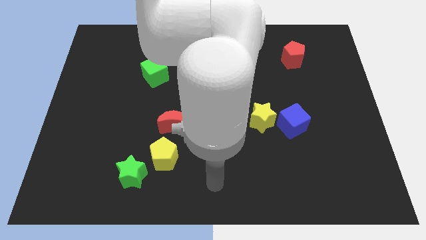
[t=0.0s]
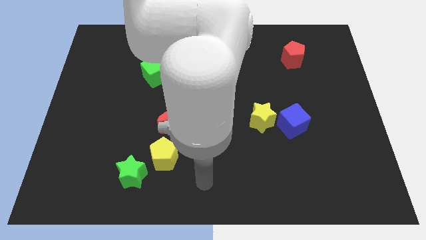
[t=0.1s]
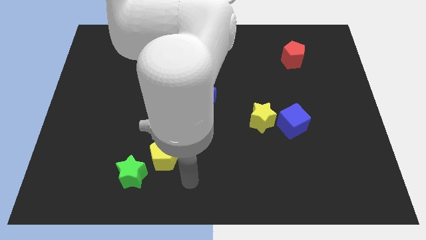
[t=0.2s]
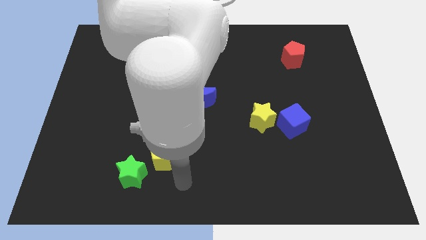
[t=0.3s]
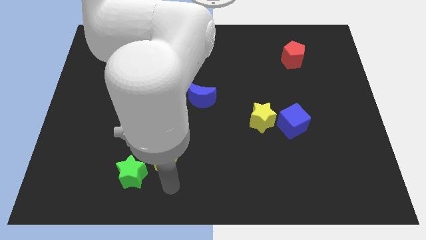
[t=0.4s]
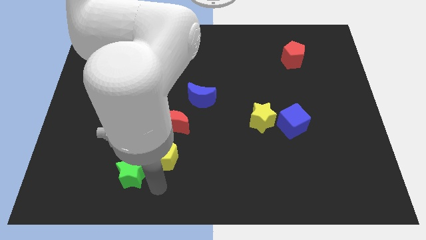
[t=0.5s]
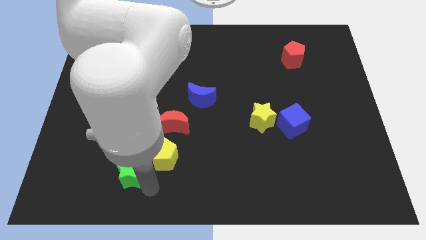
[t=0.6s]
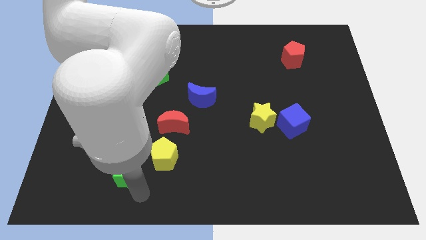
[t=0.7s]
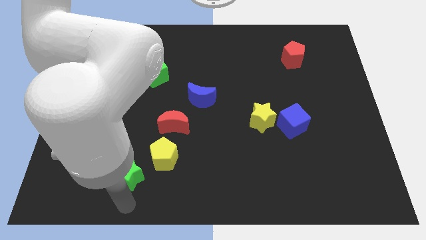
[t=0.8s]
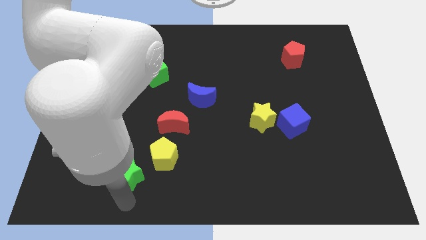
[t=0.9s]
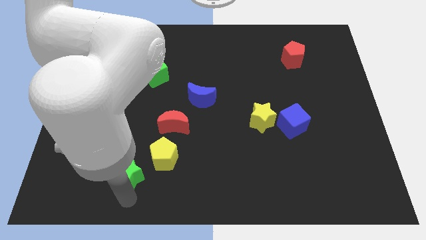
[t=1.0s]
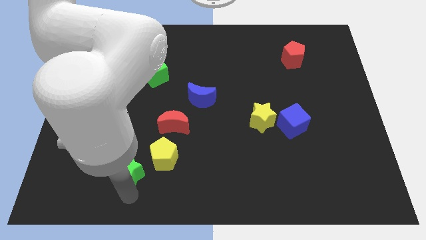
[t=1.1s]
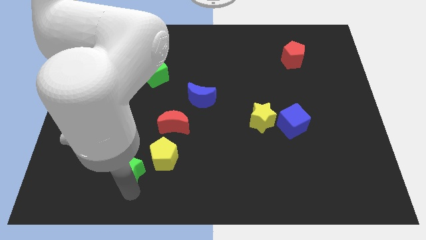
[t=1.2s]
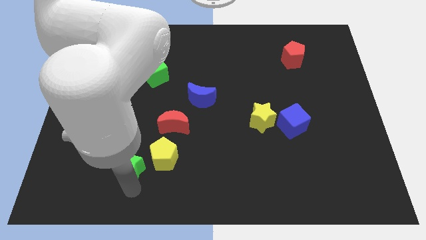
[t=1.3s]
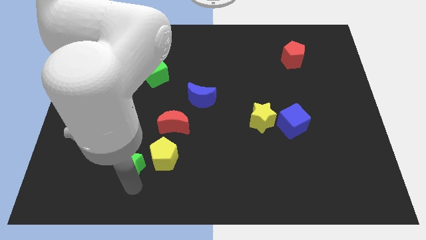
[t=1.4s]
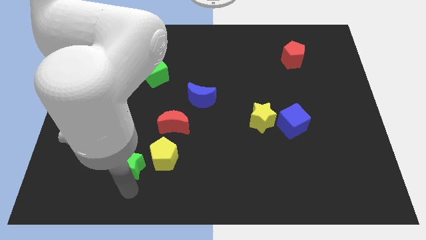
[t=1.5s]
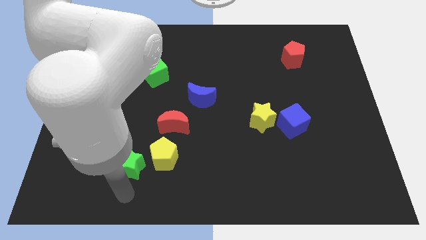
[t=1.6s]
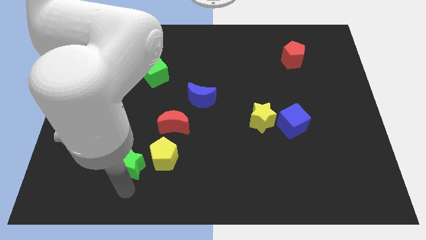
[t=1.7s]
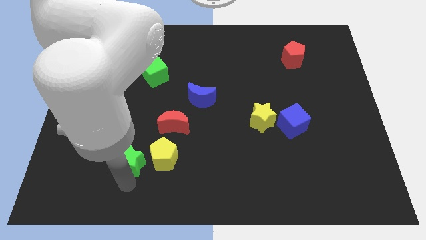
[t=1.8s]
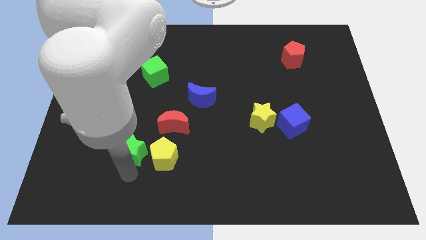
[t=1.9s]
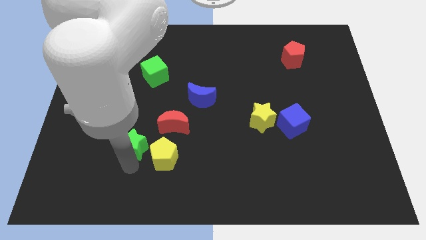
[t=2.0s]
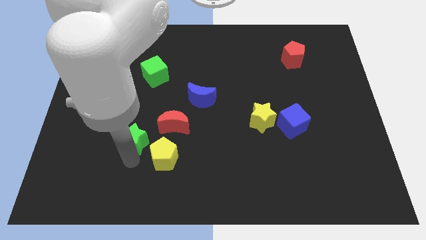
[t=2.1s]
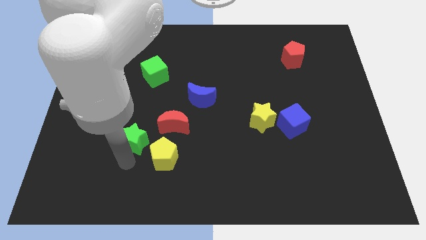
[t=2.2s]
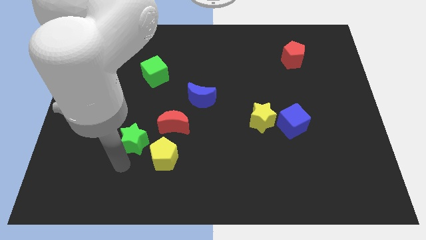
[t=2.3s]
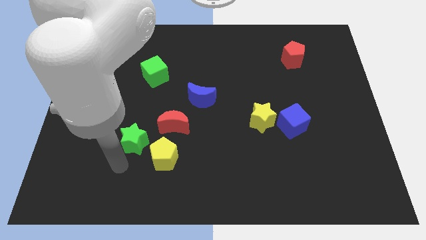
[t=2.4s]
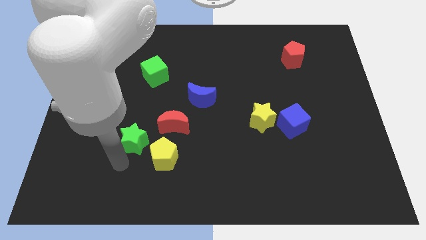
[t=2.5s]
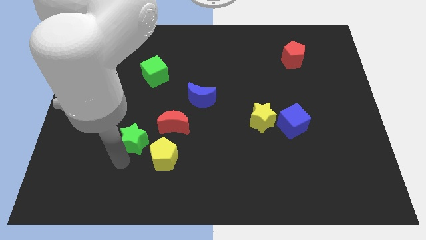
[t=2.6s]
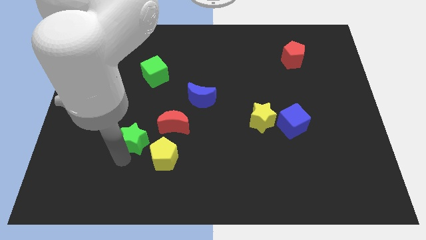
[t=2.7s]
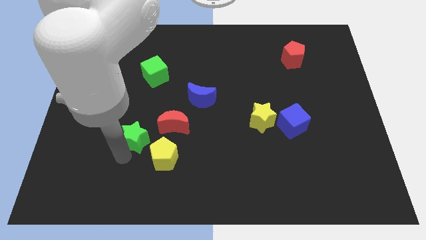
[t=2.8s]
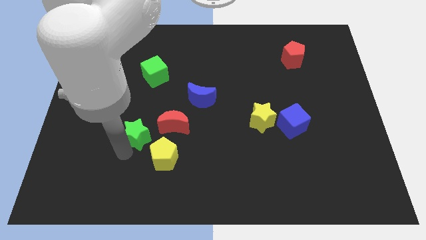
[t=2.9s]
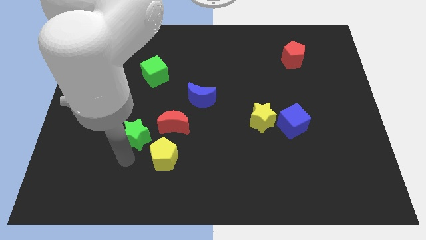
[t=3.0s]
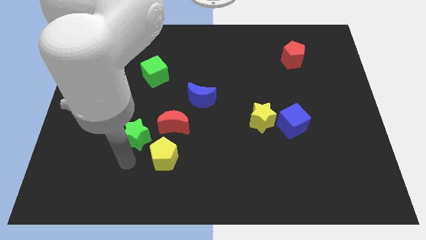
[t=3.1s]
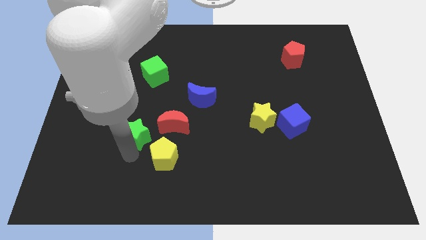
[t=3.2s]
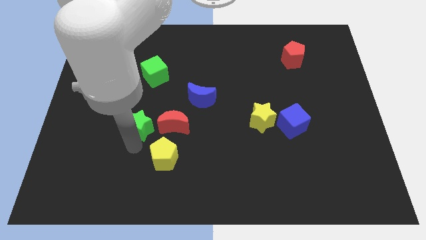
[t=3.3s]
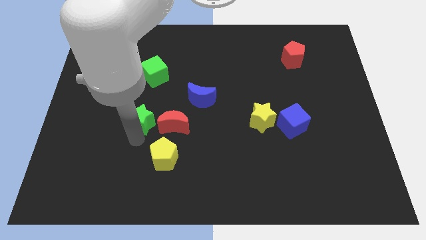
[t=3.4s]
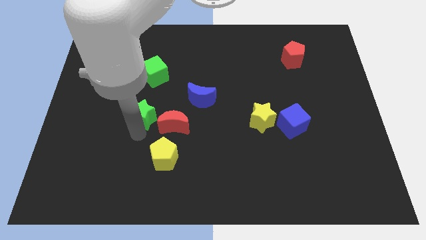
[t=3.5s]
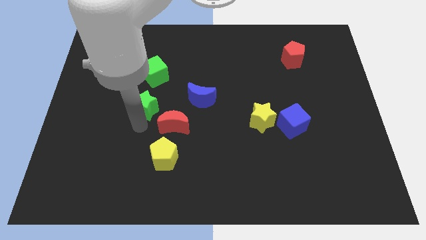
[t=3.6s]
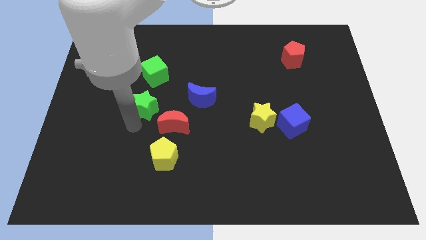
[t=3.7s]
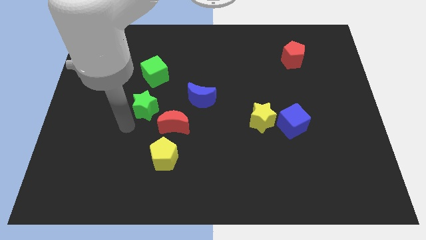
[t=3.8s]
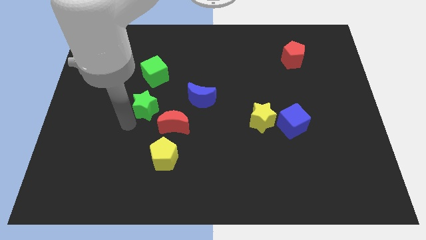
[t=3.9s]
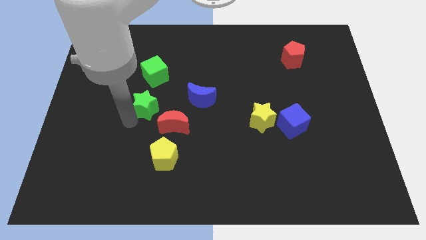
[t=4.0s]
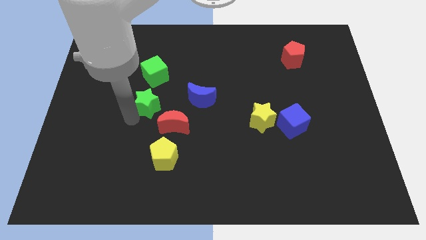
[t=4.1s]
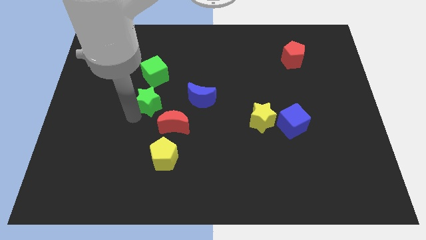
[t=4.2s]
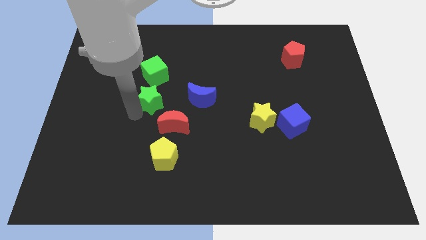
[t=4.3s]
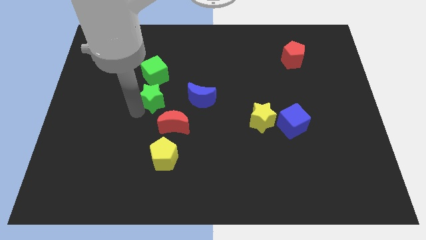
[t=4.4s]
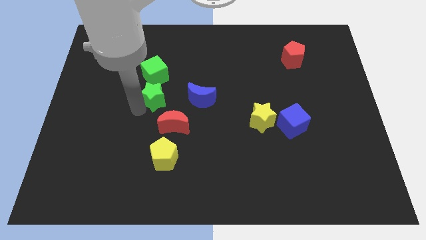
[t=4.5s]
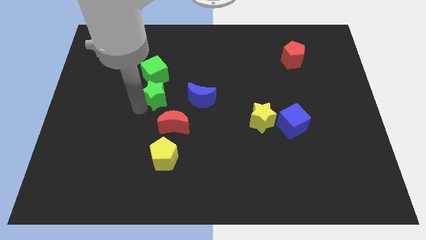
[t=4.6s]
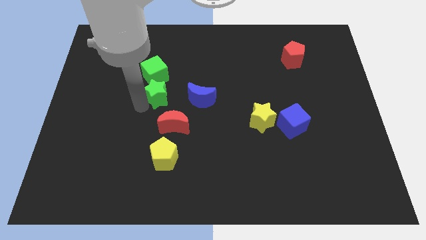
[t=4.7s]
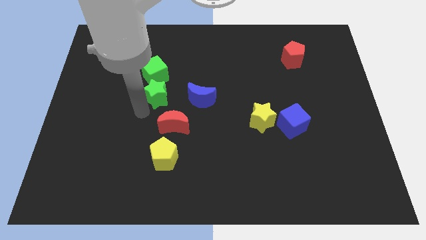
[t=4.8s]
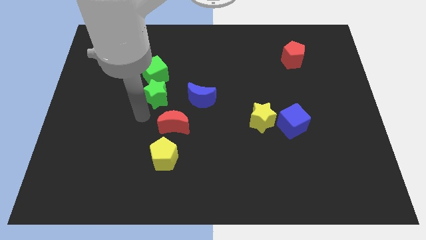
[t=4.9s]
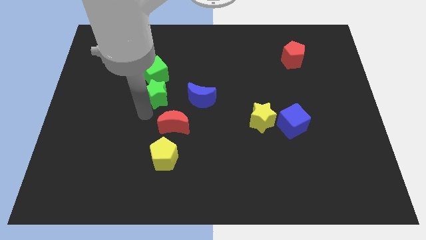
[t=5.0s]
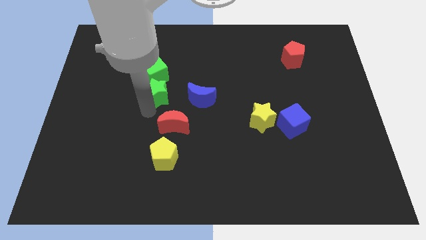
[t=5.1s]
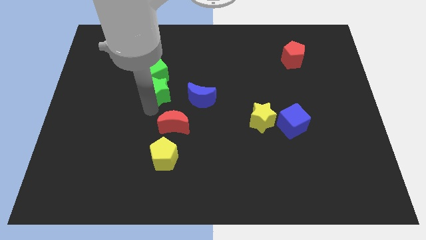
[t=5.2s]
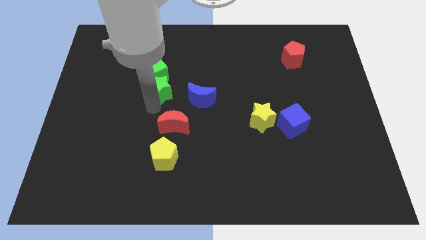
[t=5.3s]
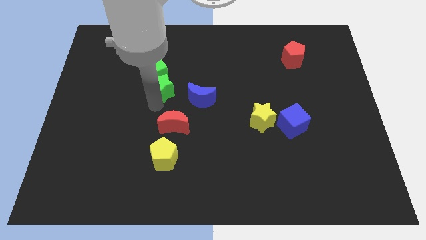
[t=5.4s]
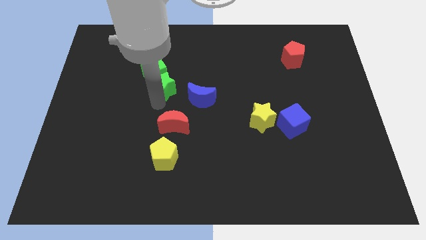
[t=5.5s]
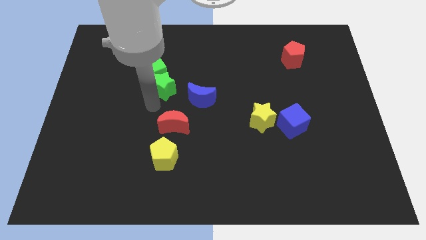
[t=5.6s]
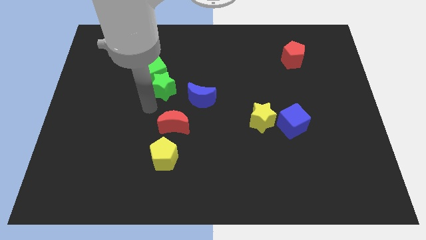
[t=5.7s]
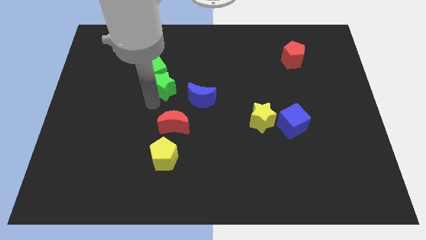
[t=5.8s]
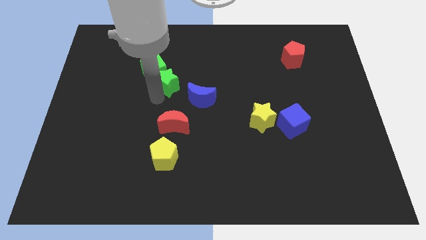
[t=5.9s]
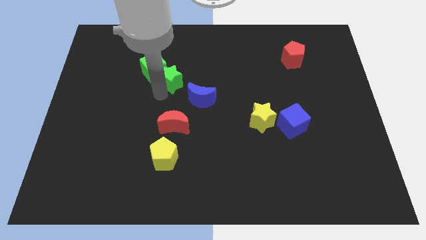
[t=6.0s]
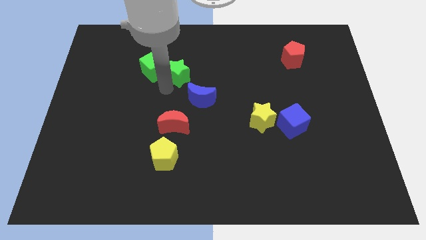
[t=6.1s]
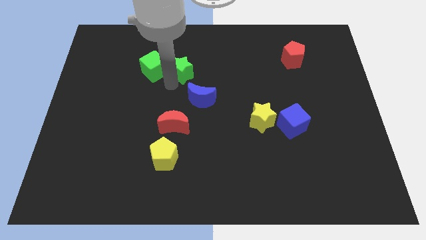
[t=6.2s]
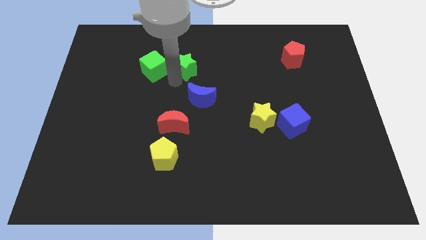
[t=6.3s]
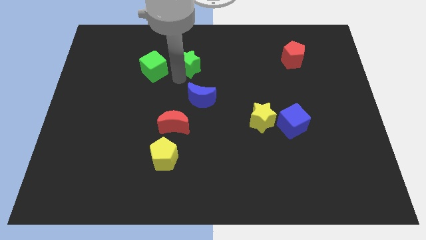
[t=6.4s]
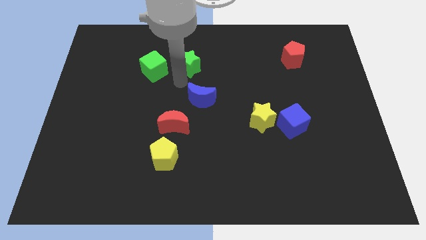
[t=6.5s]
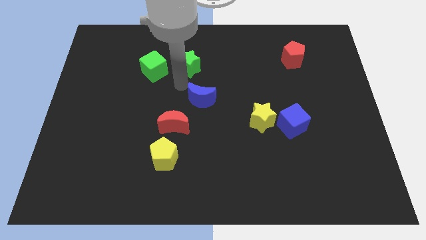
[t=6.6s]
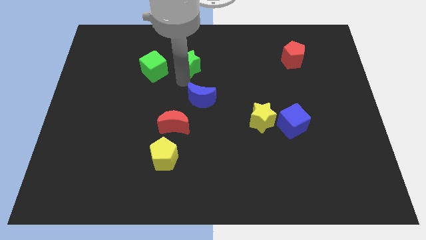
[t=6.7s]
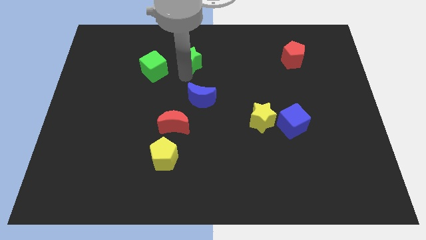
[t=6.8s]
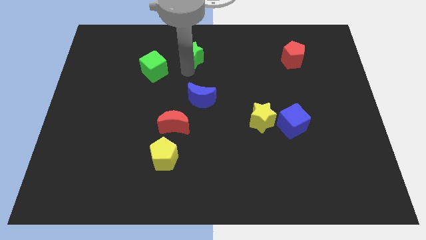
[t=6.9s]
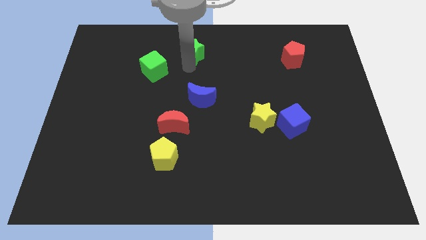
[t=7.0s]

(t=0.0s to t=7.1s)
slide the green star to the top
